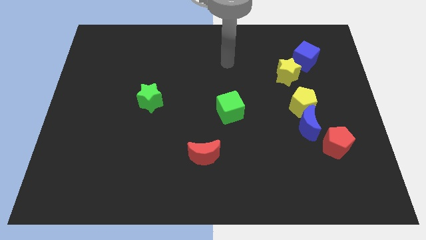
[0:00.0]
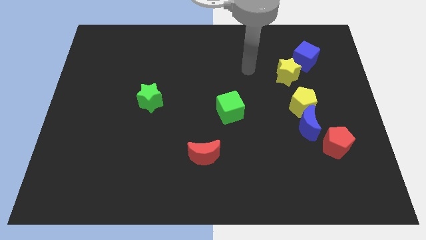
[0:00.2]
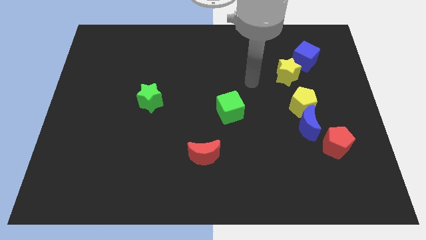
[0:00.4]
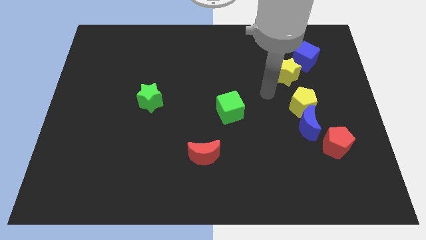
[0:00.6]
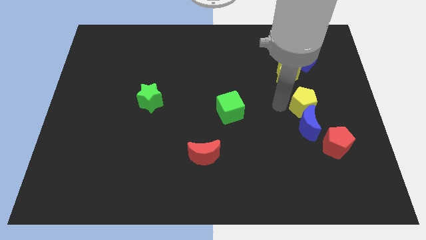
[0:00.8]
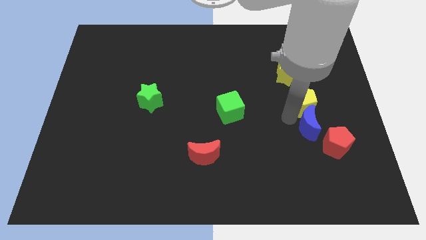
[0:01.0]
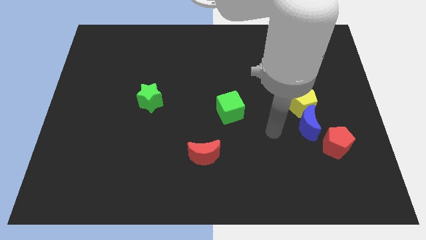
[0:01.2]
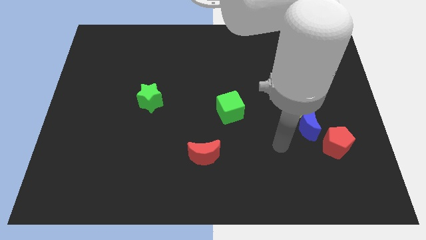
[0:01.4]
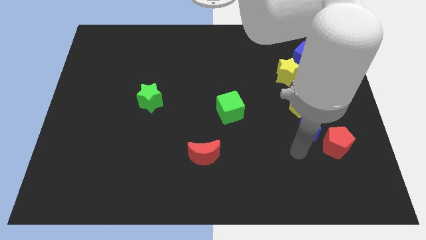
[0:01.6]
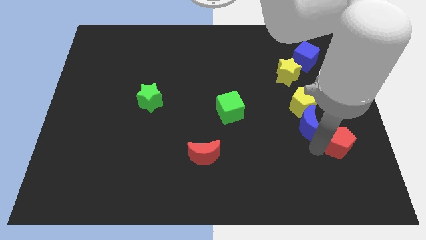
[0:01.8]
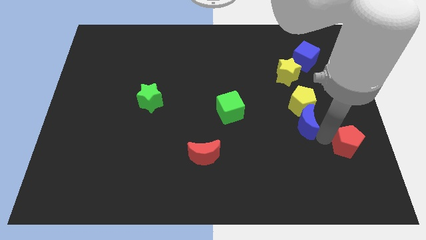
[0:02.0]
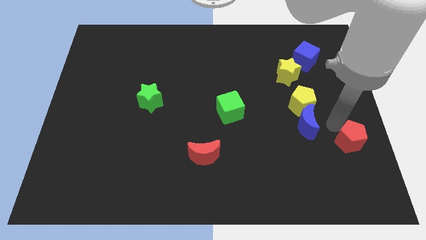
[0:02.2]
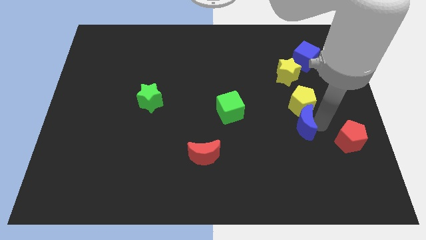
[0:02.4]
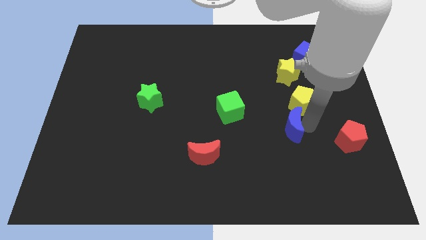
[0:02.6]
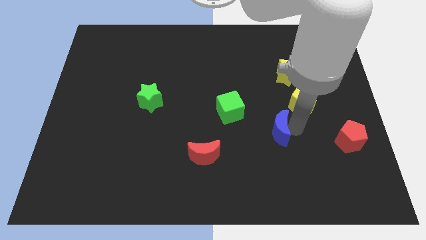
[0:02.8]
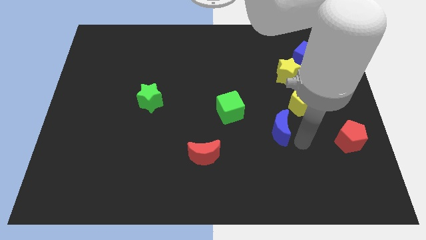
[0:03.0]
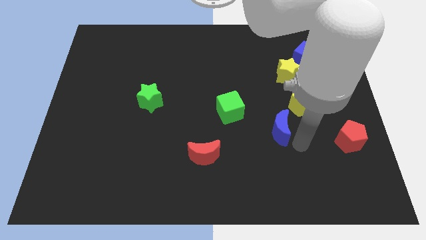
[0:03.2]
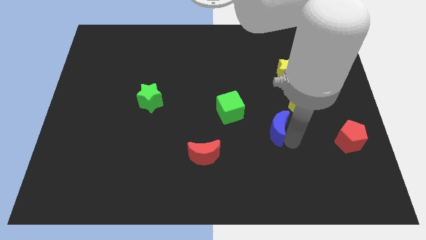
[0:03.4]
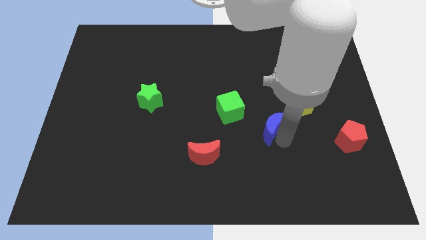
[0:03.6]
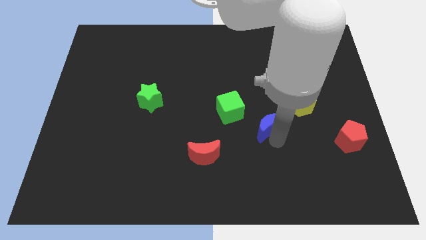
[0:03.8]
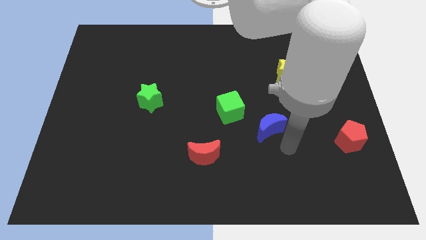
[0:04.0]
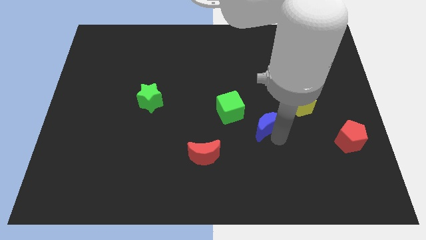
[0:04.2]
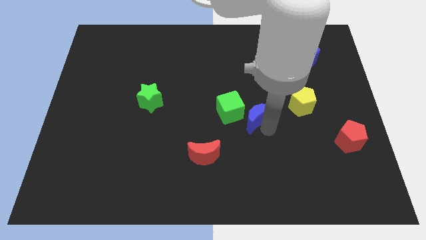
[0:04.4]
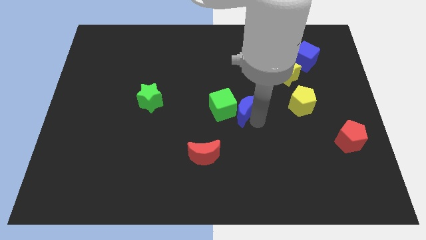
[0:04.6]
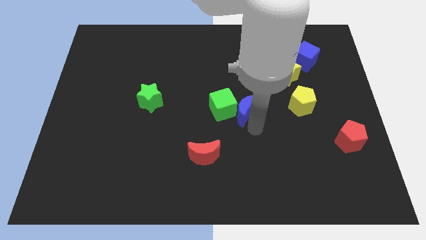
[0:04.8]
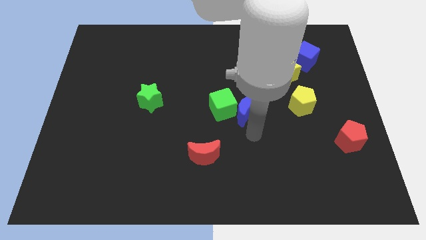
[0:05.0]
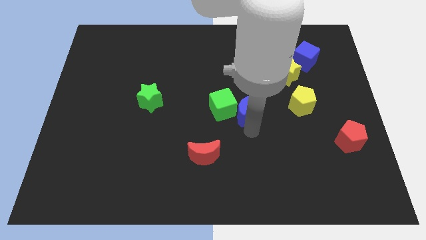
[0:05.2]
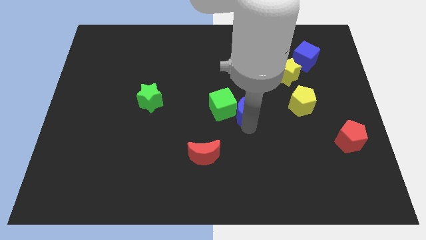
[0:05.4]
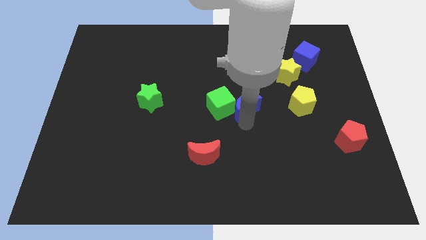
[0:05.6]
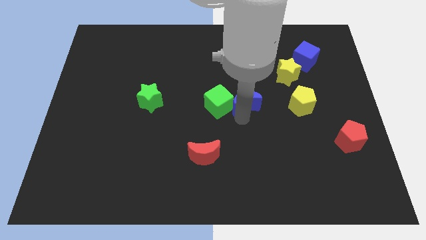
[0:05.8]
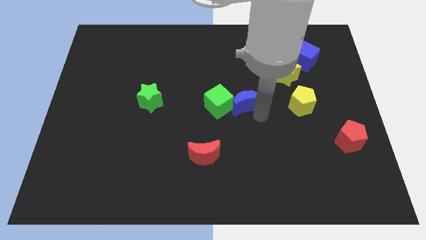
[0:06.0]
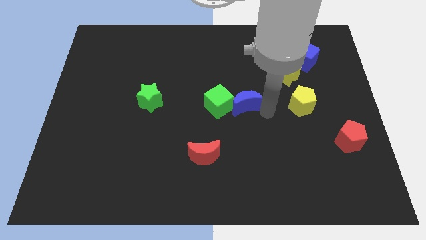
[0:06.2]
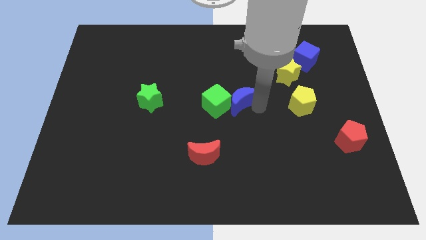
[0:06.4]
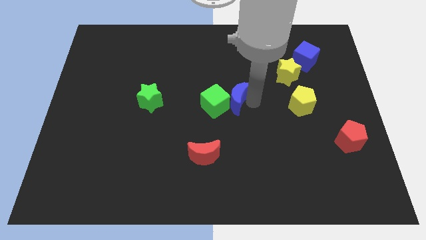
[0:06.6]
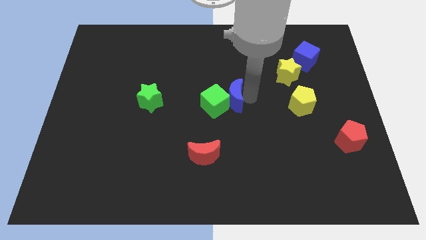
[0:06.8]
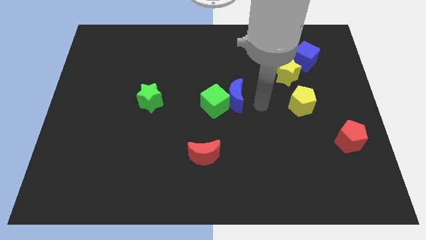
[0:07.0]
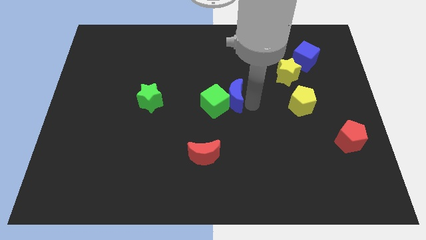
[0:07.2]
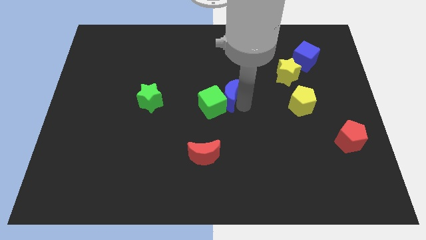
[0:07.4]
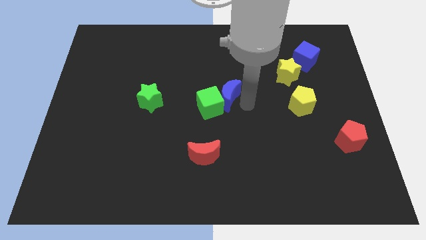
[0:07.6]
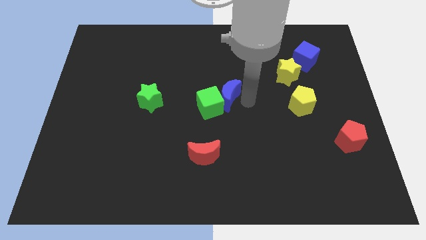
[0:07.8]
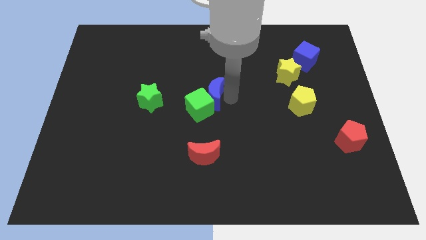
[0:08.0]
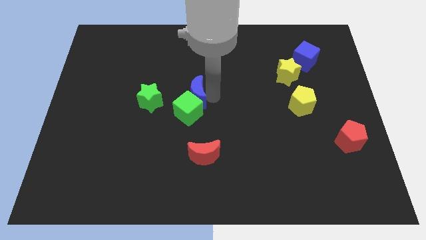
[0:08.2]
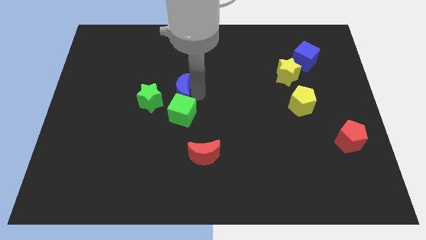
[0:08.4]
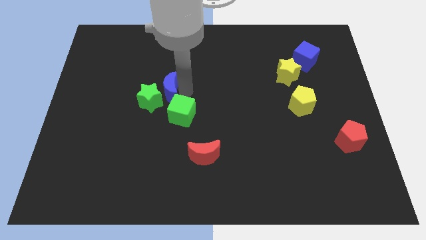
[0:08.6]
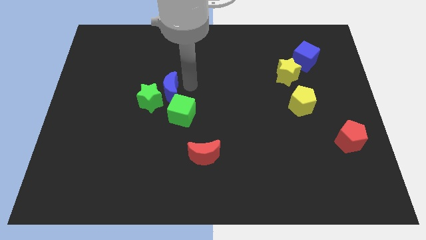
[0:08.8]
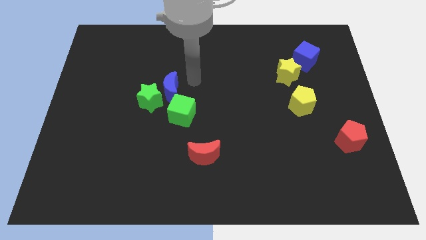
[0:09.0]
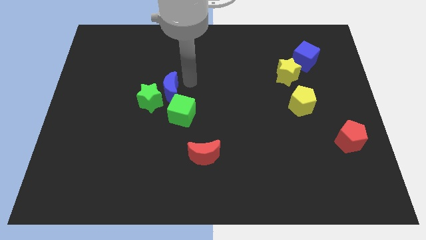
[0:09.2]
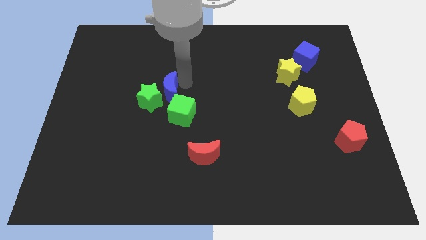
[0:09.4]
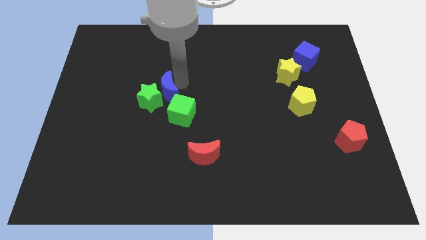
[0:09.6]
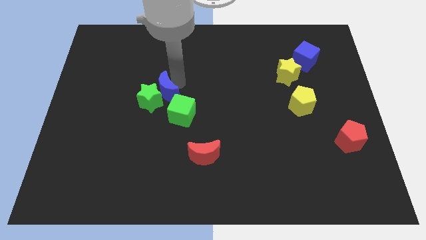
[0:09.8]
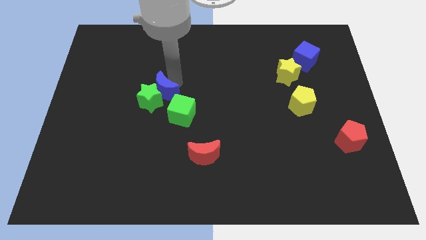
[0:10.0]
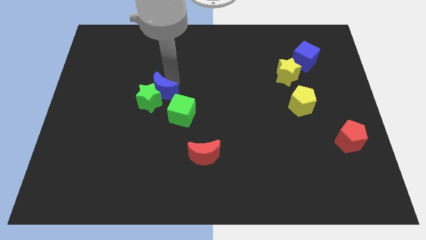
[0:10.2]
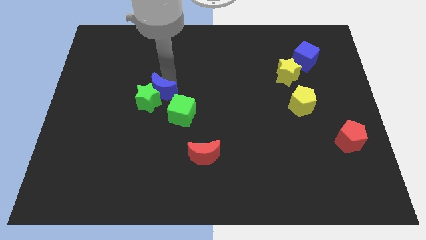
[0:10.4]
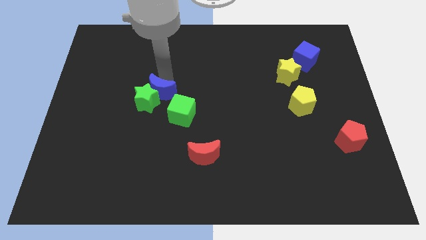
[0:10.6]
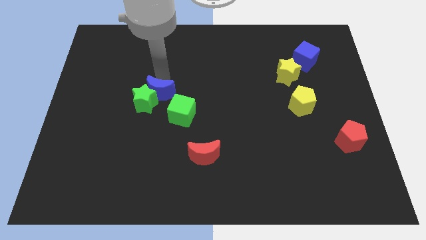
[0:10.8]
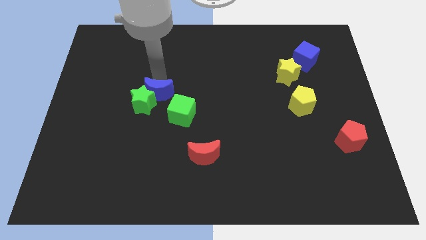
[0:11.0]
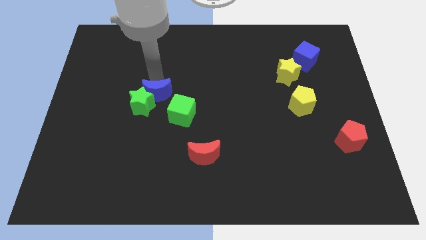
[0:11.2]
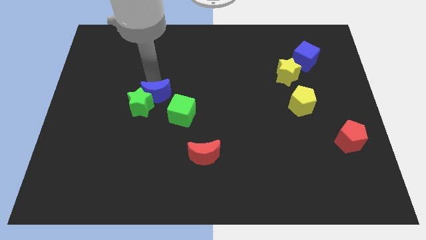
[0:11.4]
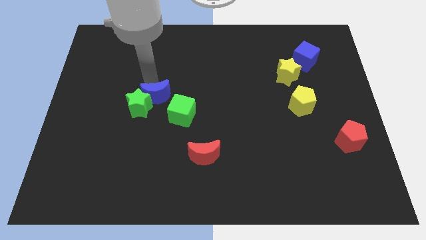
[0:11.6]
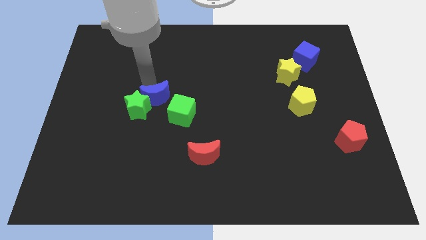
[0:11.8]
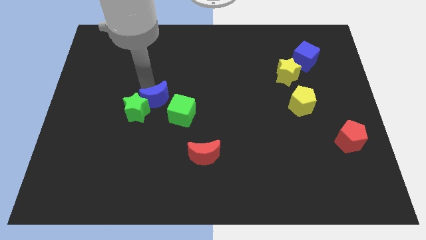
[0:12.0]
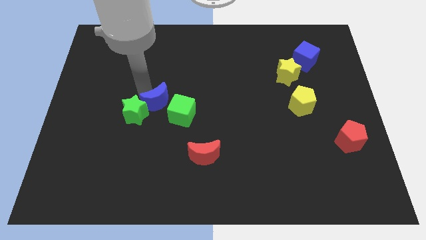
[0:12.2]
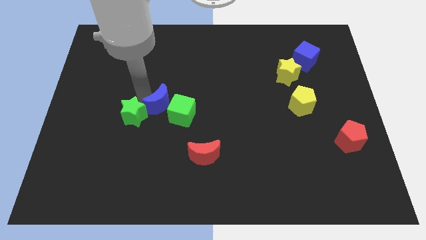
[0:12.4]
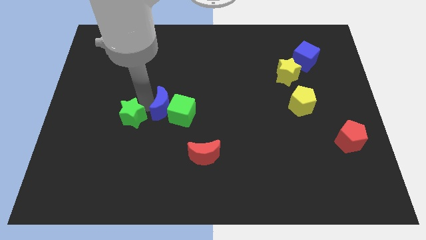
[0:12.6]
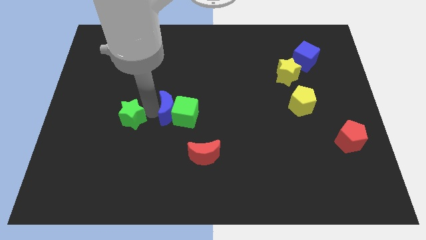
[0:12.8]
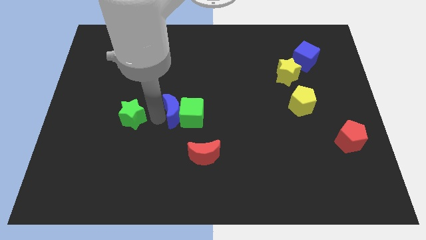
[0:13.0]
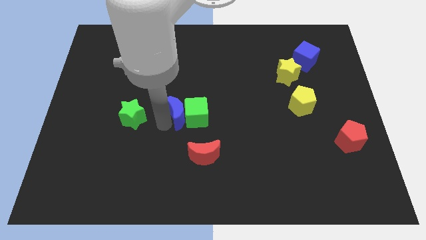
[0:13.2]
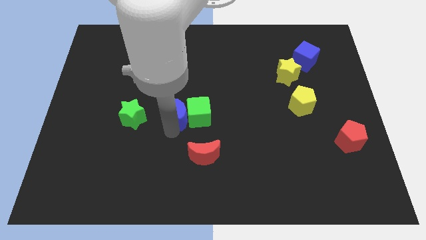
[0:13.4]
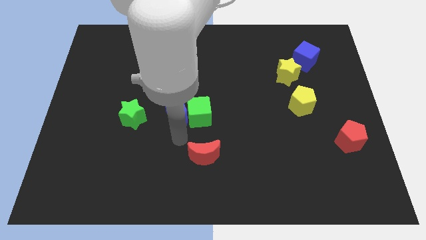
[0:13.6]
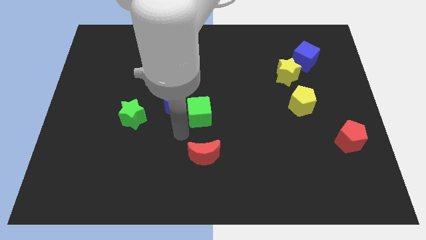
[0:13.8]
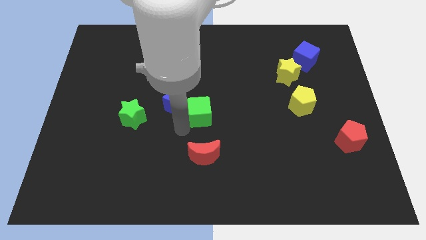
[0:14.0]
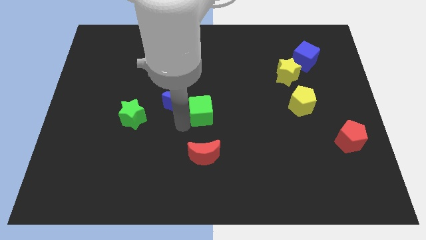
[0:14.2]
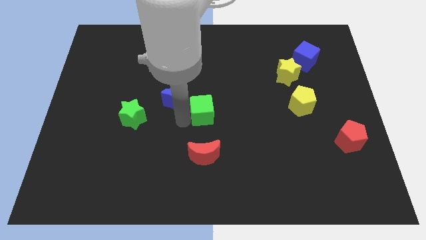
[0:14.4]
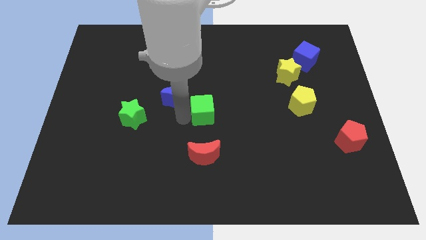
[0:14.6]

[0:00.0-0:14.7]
push the blue moon to the top left of the green cube

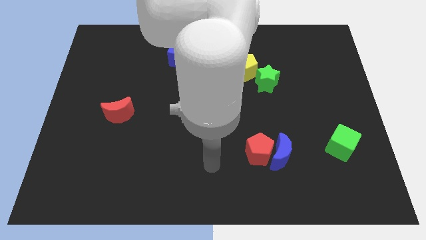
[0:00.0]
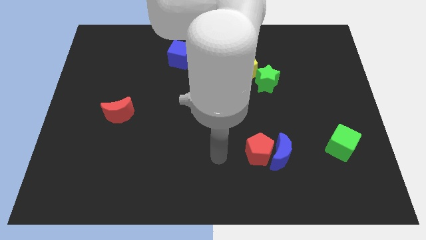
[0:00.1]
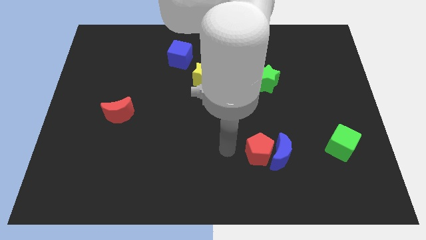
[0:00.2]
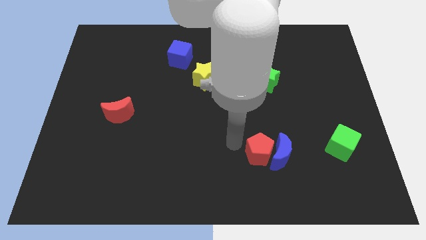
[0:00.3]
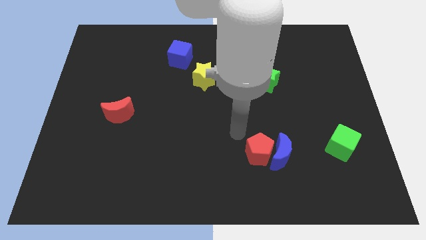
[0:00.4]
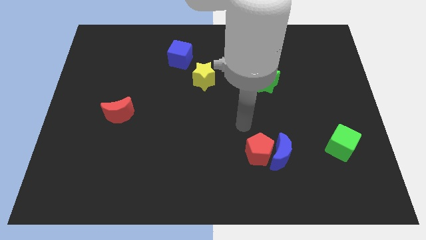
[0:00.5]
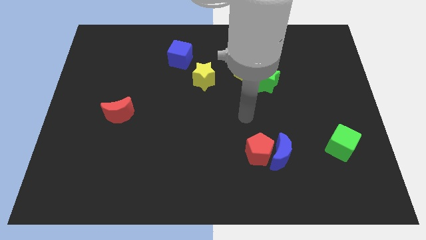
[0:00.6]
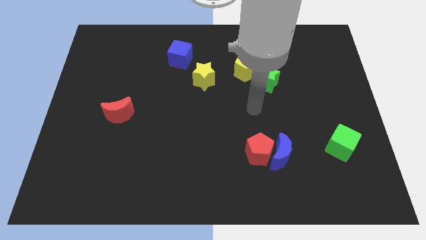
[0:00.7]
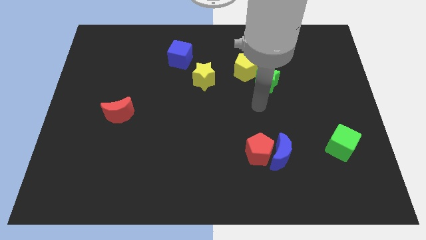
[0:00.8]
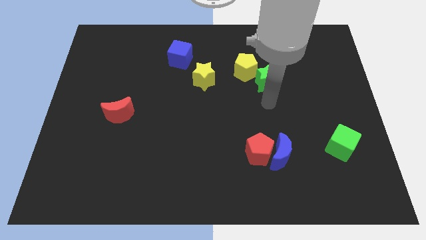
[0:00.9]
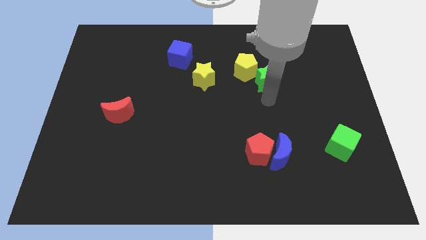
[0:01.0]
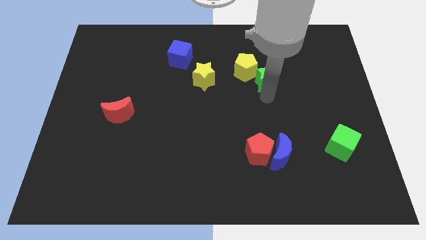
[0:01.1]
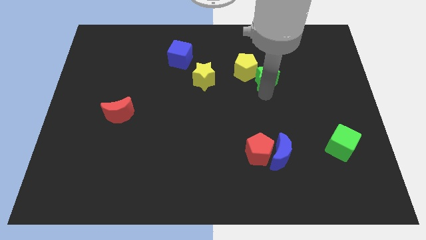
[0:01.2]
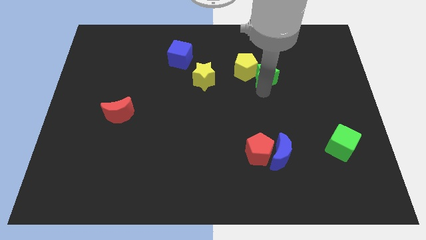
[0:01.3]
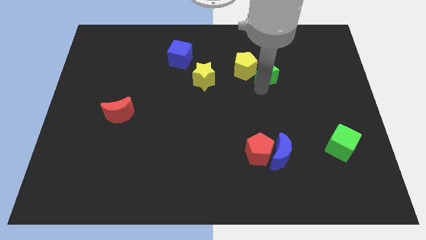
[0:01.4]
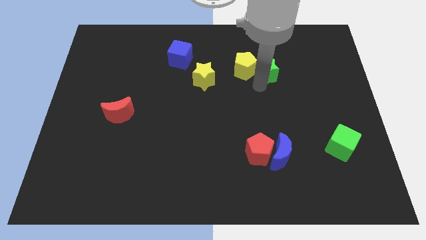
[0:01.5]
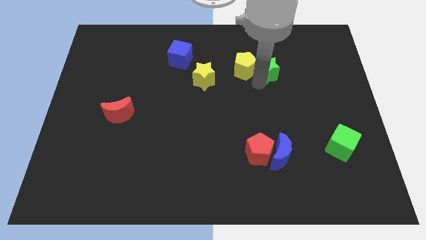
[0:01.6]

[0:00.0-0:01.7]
put the green star to the top right side of the yellow pentagon
